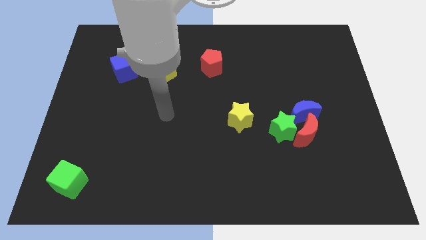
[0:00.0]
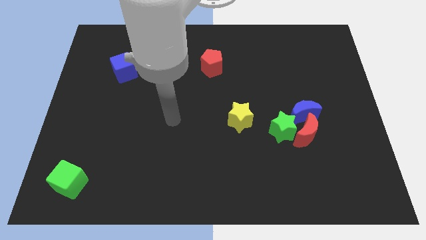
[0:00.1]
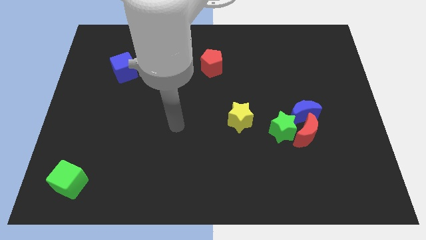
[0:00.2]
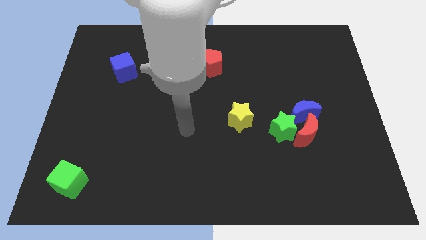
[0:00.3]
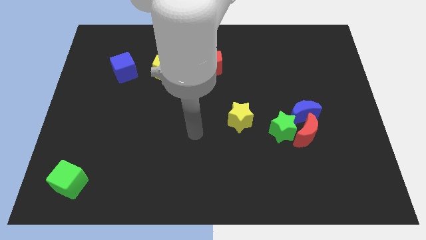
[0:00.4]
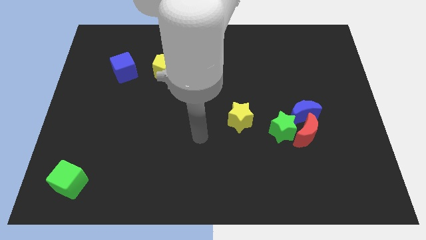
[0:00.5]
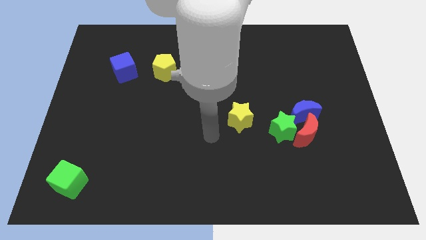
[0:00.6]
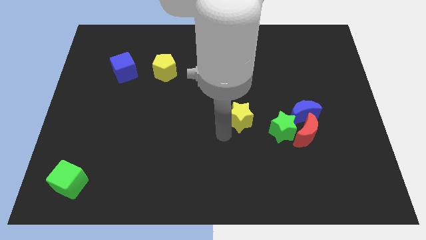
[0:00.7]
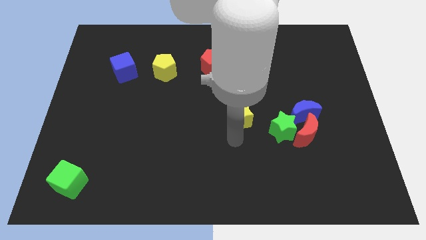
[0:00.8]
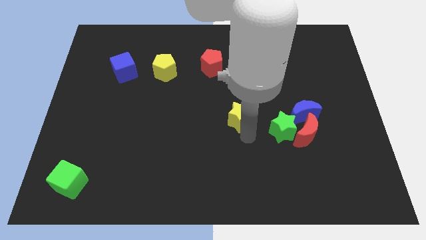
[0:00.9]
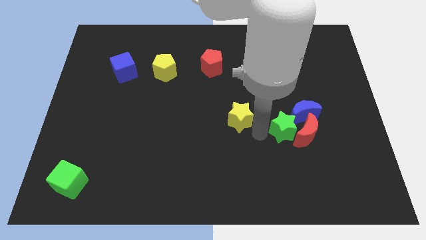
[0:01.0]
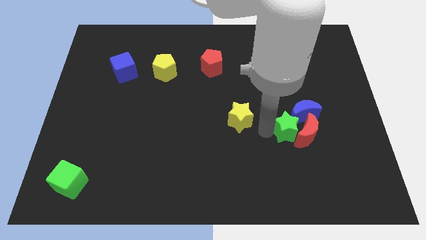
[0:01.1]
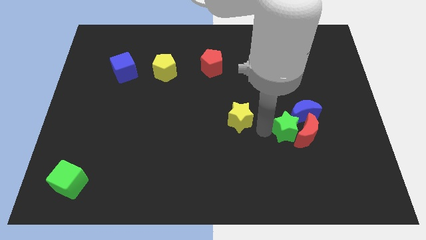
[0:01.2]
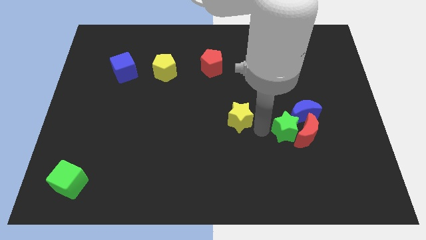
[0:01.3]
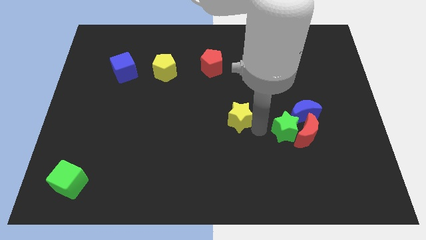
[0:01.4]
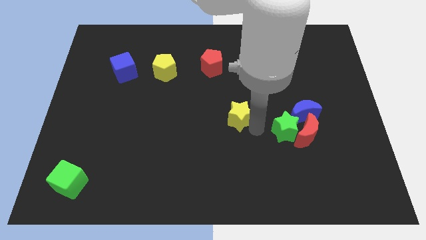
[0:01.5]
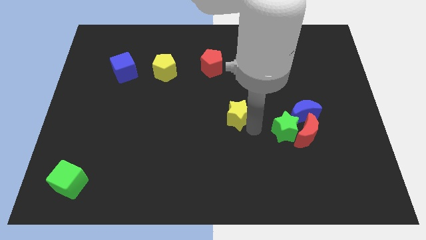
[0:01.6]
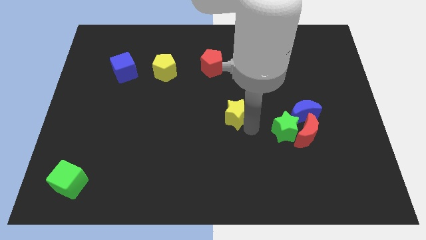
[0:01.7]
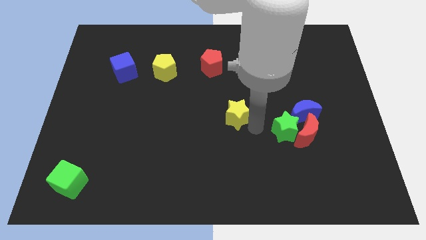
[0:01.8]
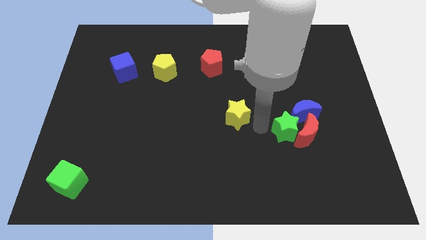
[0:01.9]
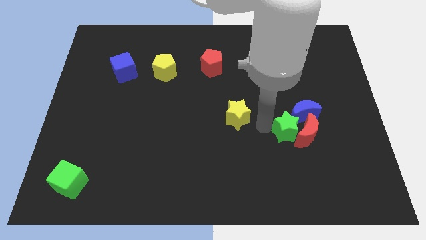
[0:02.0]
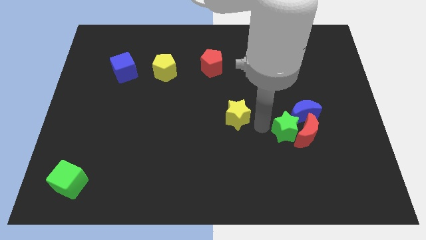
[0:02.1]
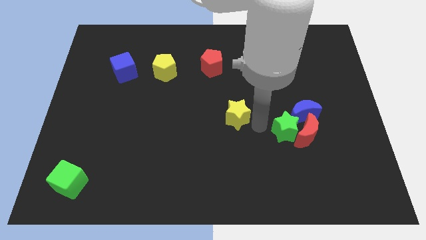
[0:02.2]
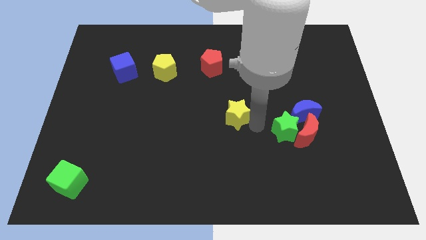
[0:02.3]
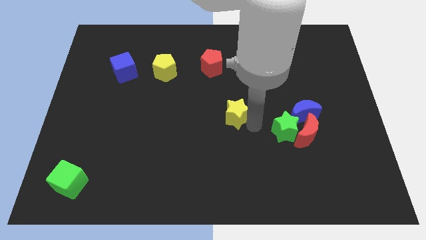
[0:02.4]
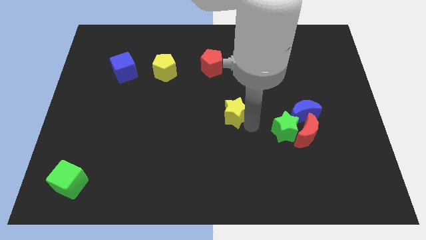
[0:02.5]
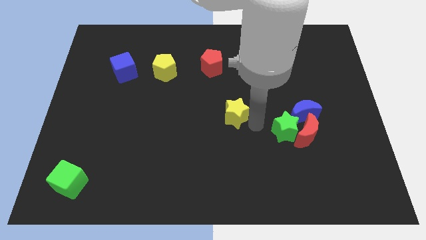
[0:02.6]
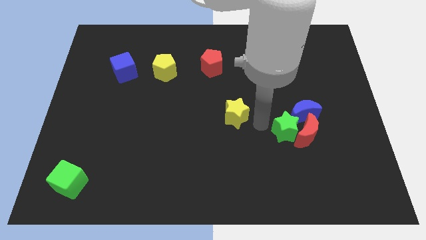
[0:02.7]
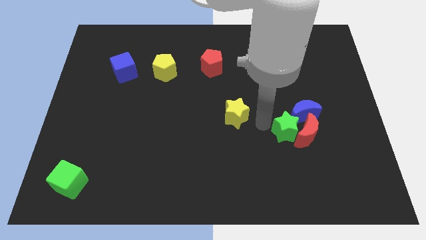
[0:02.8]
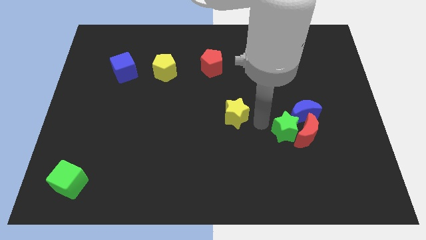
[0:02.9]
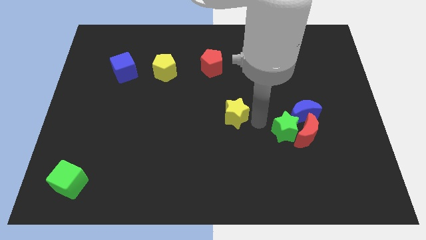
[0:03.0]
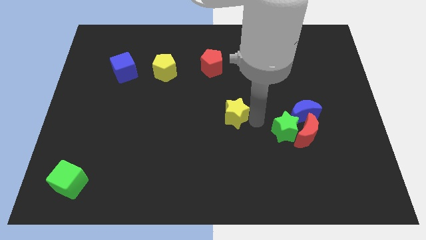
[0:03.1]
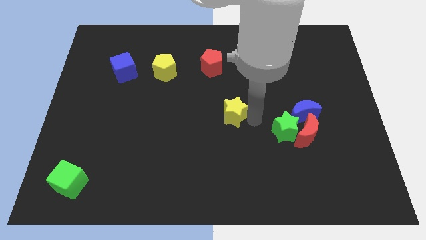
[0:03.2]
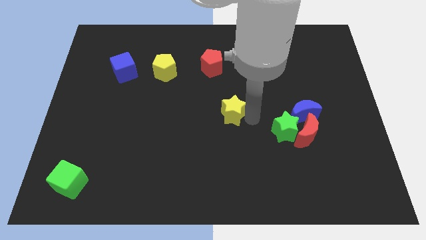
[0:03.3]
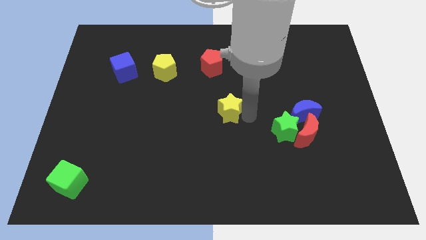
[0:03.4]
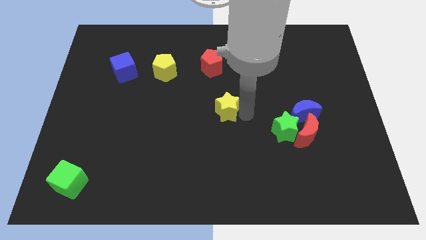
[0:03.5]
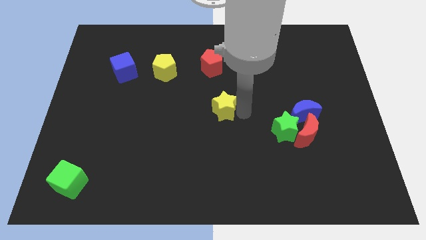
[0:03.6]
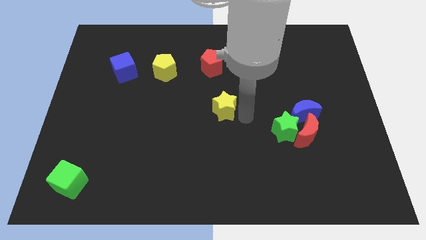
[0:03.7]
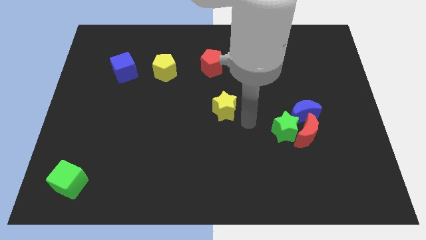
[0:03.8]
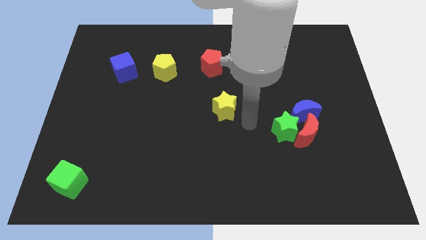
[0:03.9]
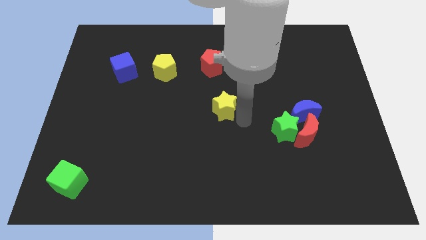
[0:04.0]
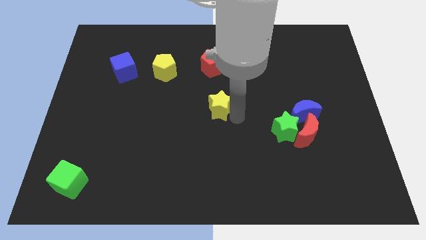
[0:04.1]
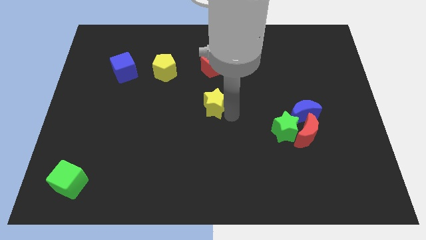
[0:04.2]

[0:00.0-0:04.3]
push the yellow star up and then to the left a little

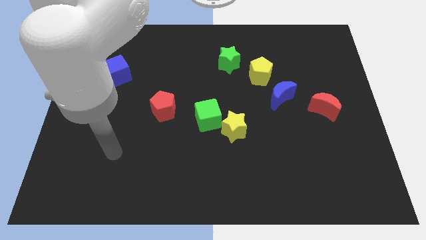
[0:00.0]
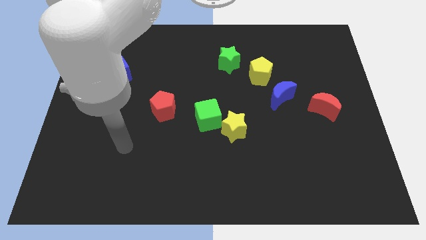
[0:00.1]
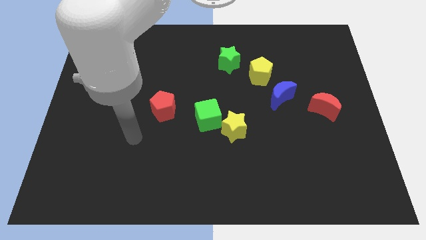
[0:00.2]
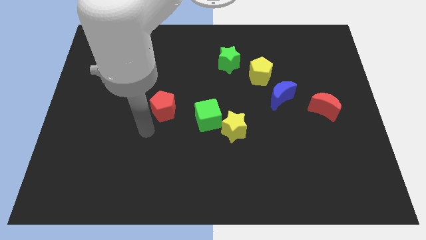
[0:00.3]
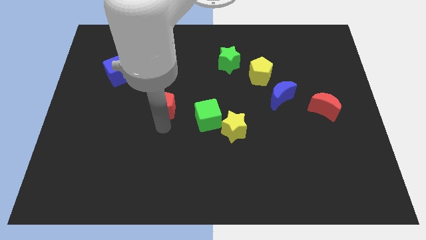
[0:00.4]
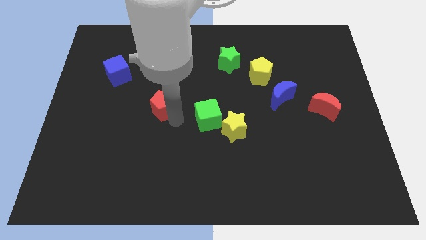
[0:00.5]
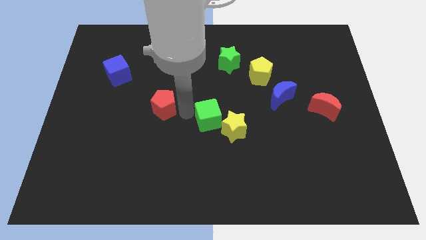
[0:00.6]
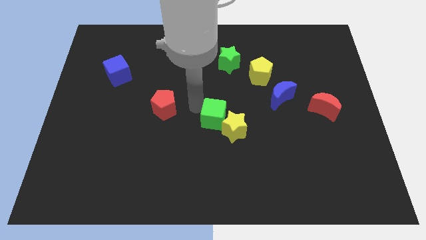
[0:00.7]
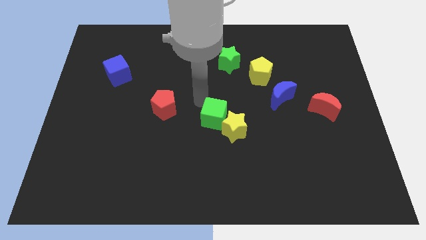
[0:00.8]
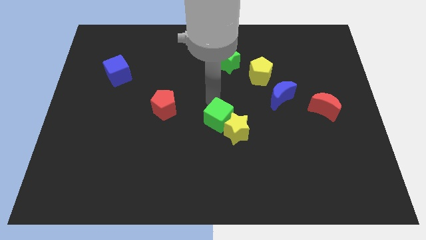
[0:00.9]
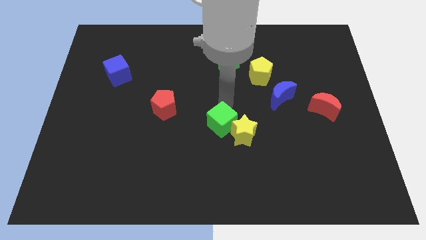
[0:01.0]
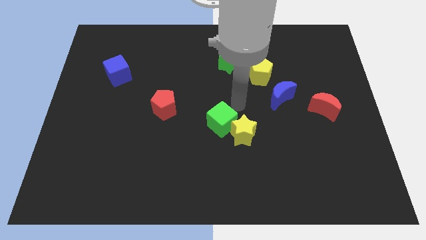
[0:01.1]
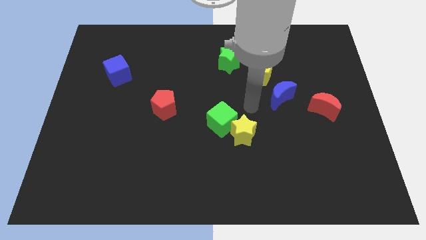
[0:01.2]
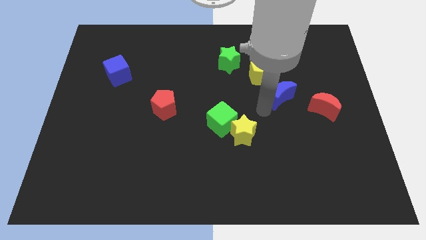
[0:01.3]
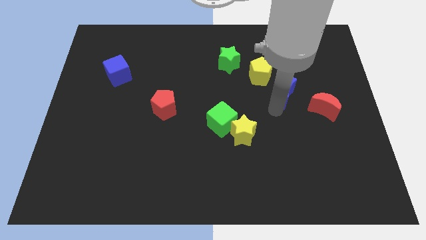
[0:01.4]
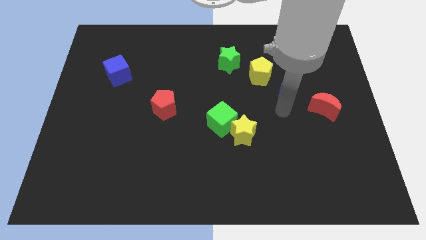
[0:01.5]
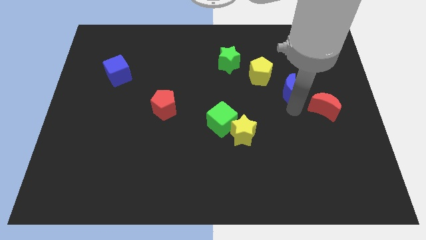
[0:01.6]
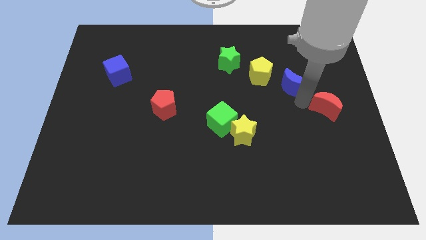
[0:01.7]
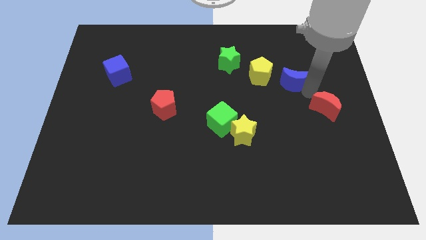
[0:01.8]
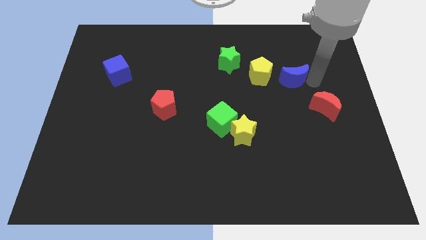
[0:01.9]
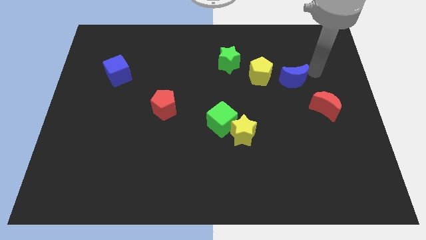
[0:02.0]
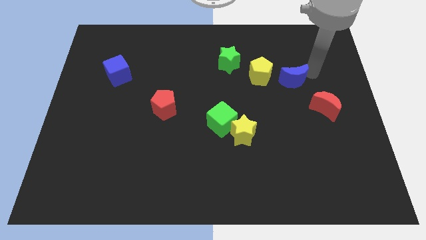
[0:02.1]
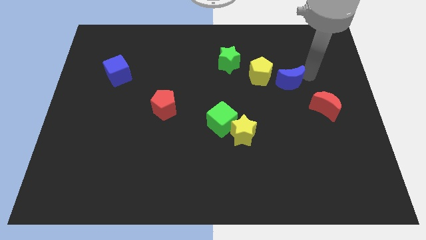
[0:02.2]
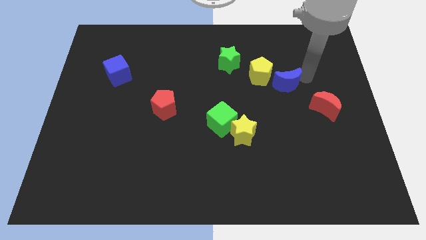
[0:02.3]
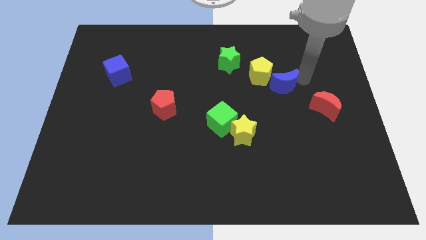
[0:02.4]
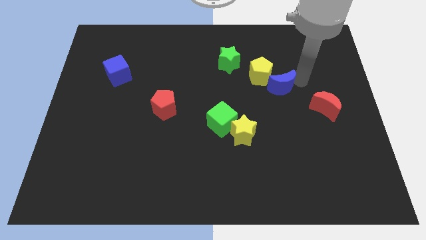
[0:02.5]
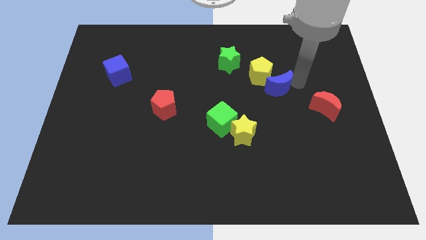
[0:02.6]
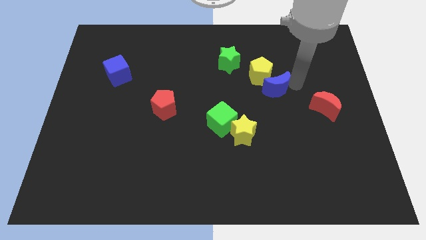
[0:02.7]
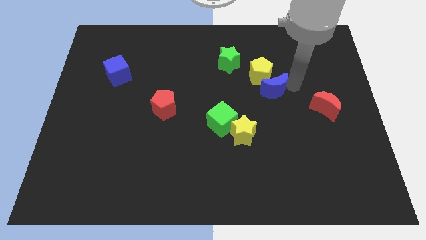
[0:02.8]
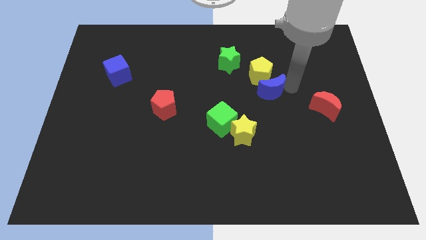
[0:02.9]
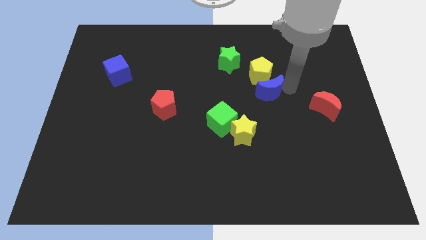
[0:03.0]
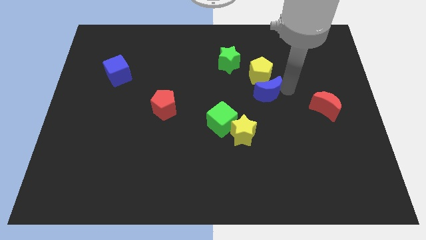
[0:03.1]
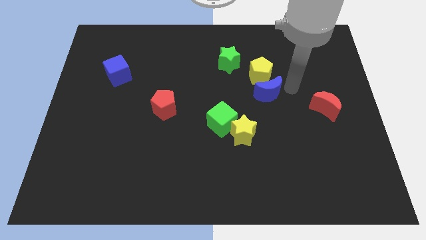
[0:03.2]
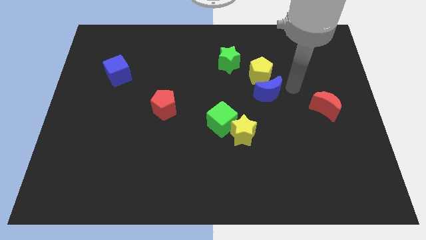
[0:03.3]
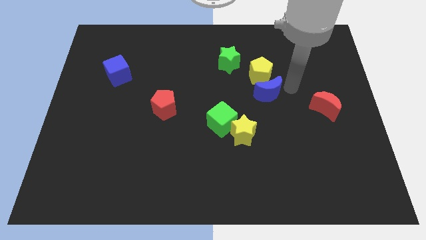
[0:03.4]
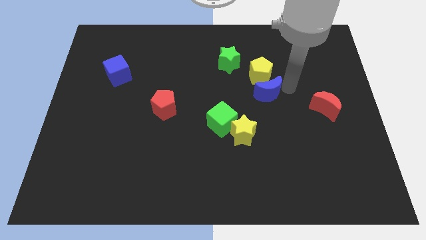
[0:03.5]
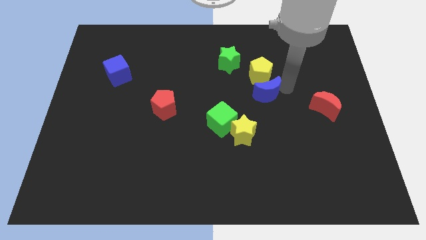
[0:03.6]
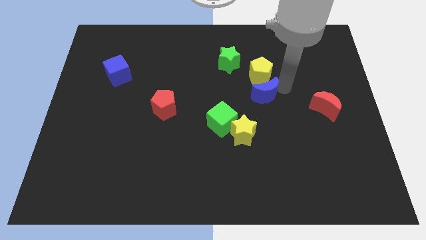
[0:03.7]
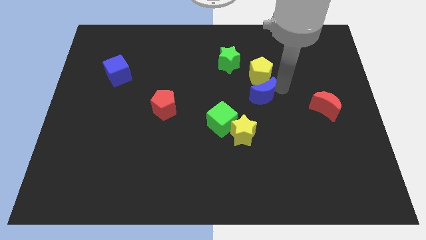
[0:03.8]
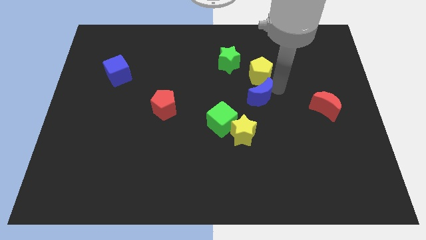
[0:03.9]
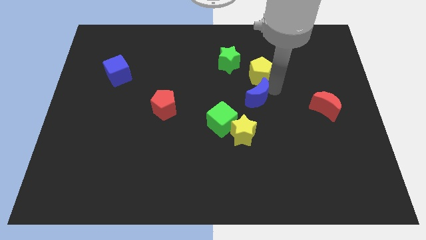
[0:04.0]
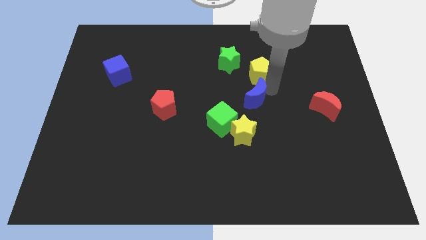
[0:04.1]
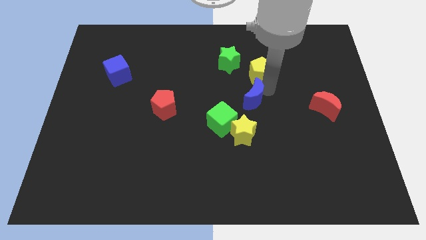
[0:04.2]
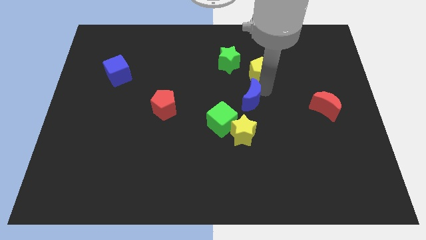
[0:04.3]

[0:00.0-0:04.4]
push the blue moon a bit left
